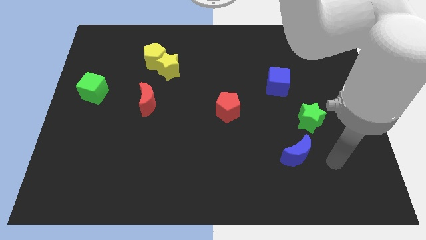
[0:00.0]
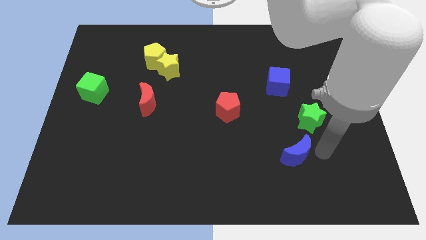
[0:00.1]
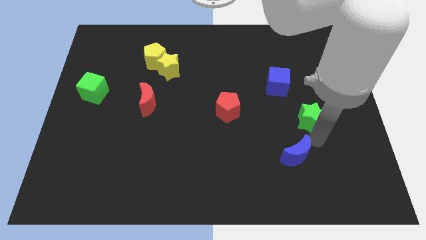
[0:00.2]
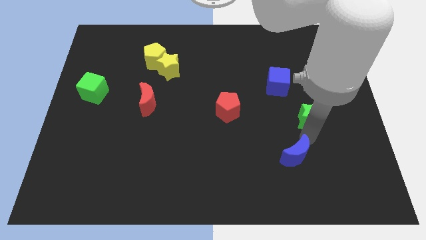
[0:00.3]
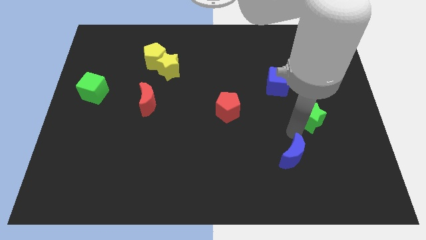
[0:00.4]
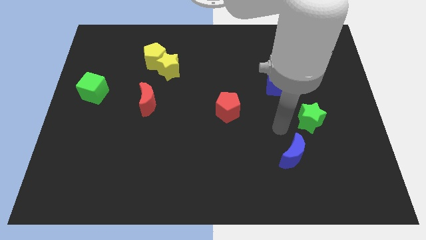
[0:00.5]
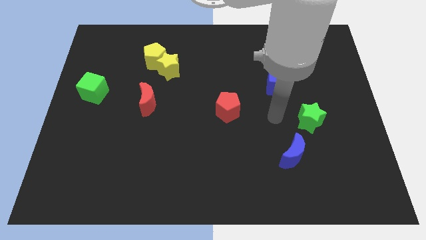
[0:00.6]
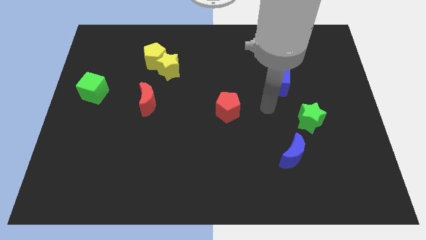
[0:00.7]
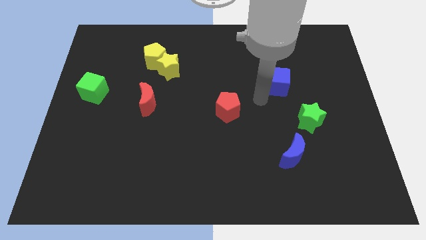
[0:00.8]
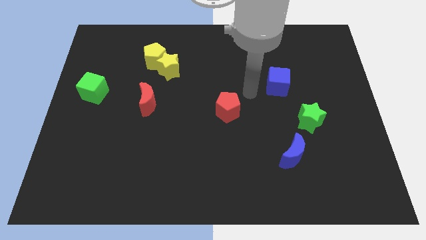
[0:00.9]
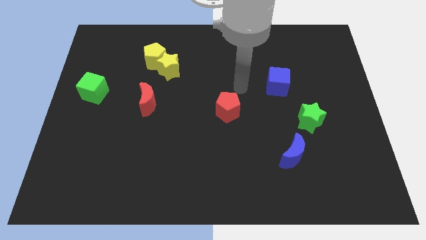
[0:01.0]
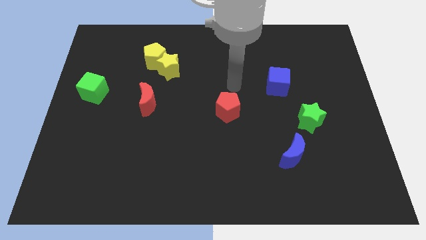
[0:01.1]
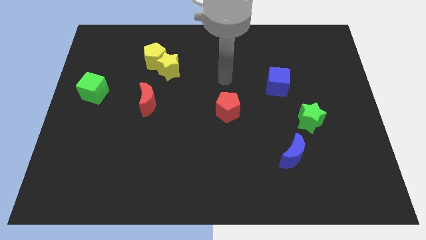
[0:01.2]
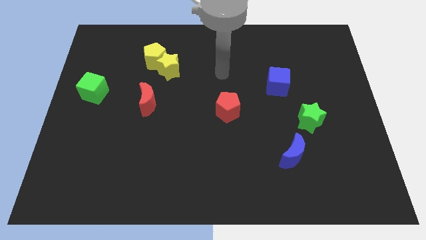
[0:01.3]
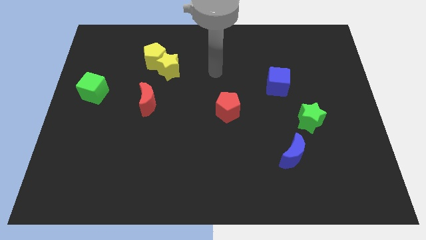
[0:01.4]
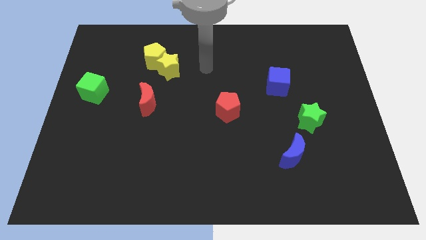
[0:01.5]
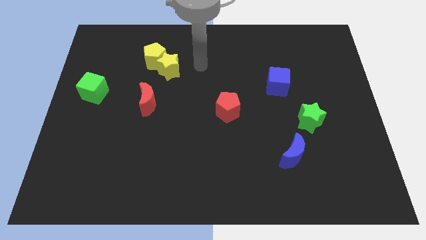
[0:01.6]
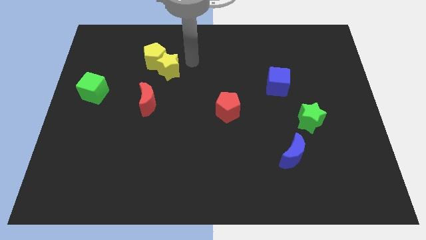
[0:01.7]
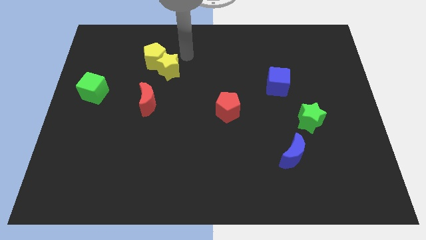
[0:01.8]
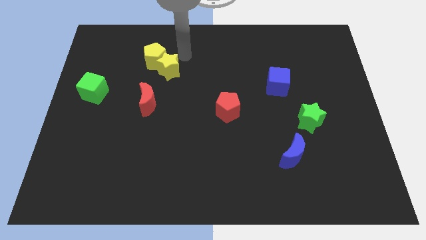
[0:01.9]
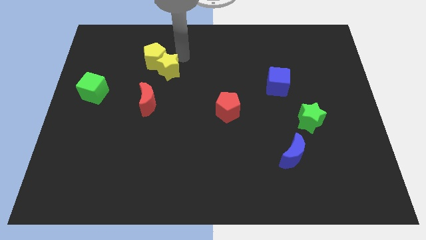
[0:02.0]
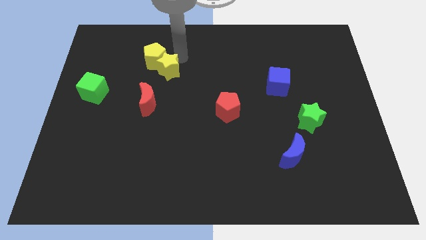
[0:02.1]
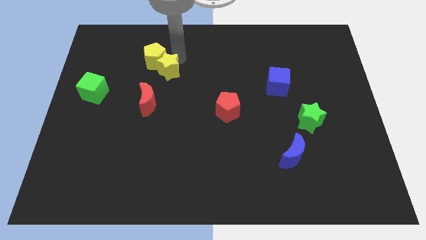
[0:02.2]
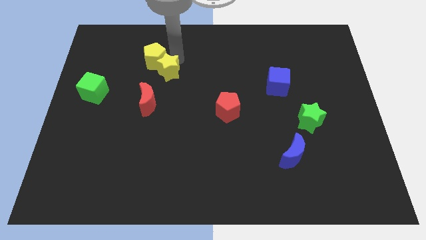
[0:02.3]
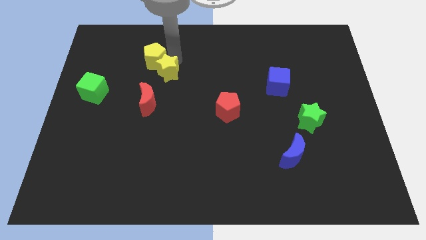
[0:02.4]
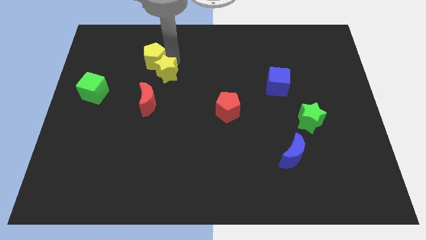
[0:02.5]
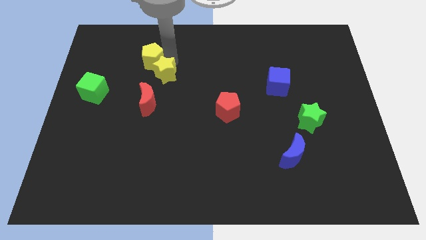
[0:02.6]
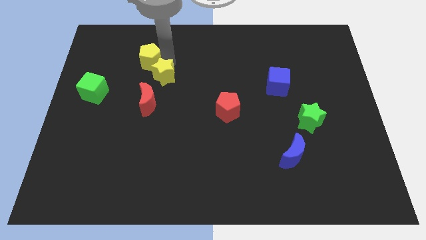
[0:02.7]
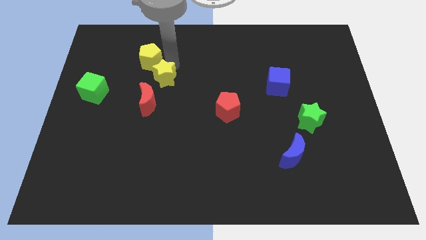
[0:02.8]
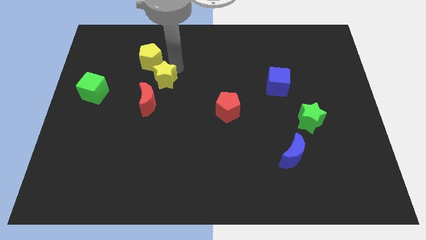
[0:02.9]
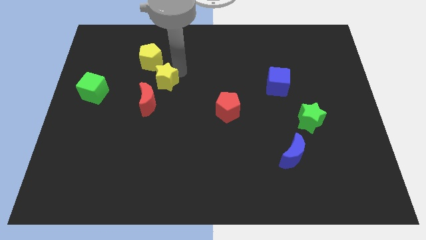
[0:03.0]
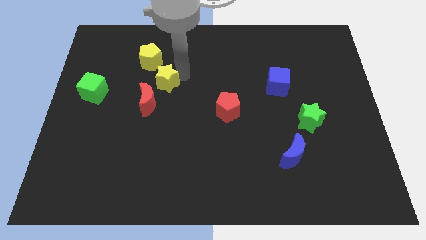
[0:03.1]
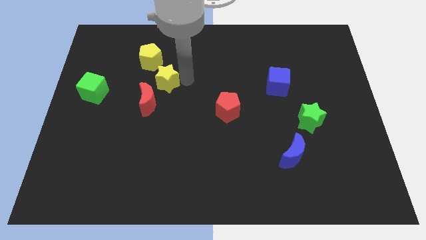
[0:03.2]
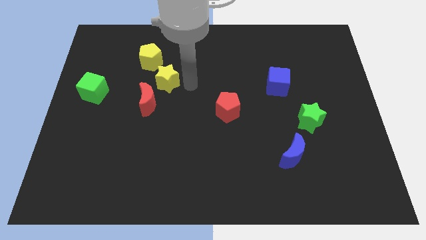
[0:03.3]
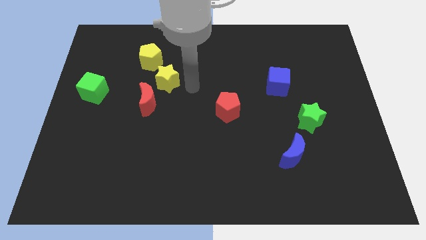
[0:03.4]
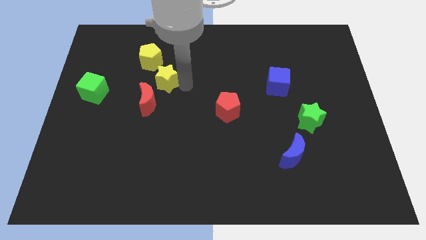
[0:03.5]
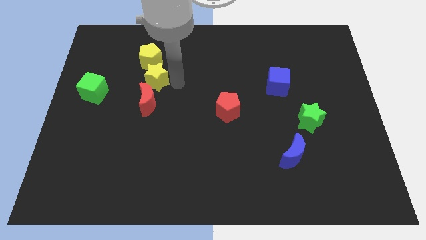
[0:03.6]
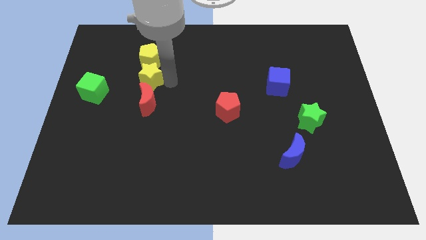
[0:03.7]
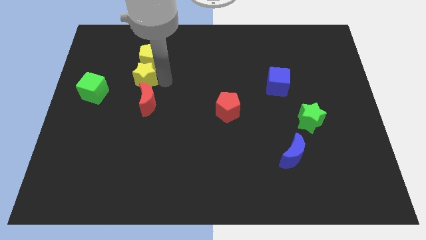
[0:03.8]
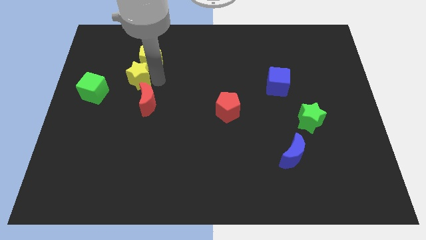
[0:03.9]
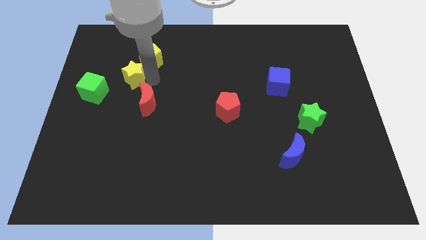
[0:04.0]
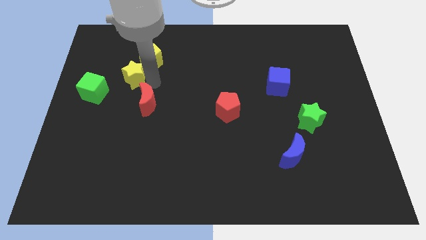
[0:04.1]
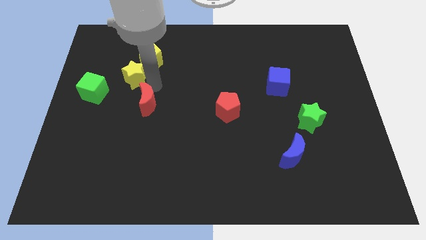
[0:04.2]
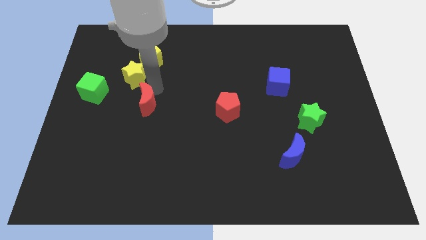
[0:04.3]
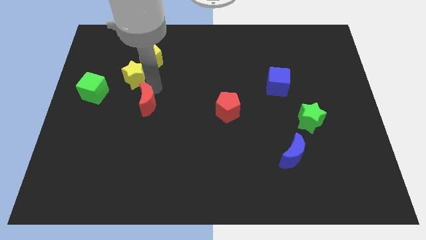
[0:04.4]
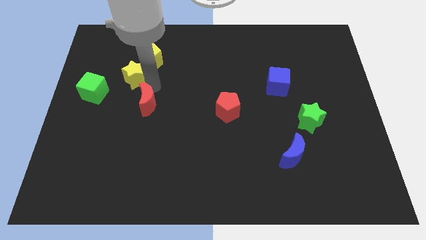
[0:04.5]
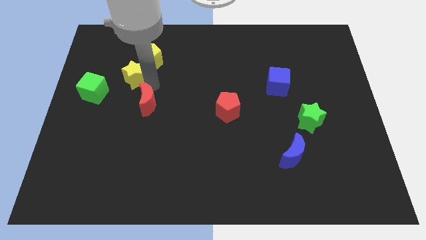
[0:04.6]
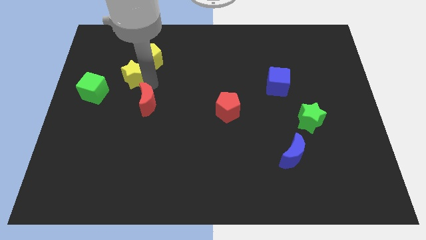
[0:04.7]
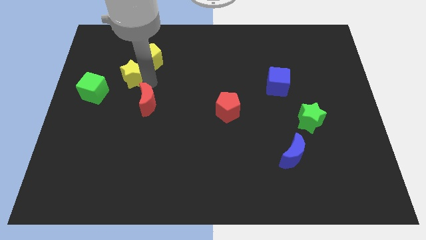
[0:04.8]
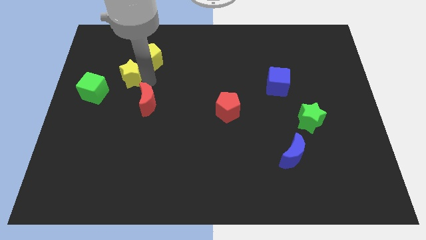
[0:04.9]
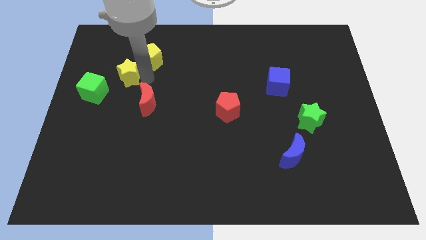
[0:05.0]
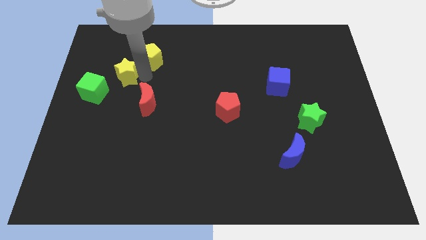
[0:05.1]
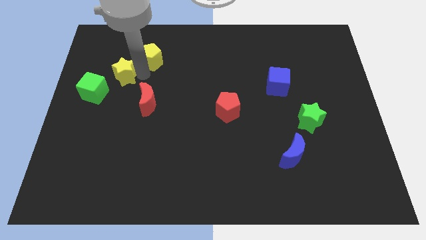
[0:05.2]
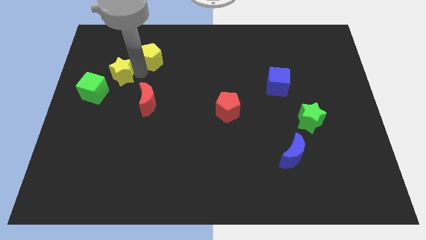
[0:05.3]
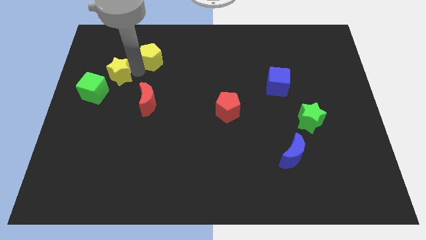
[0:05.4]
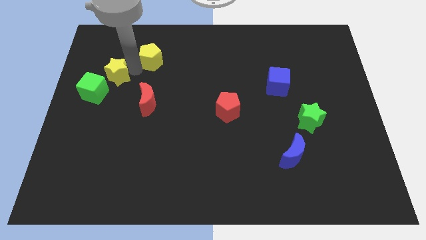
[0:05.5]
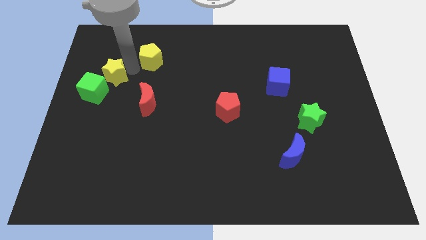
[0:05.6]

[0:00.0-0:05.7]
put the yellow star to the top of the green cube
